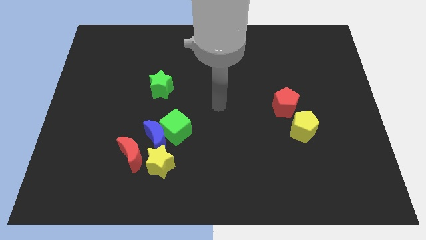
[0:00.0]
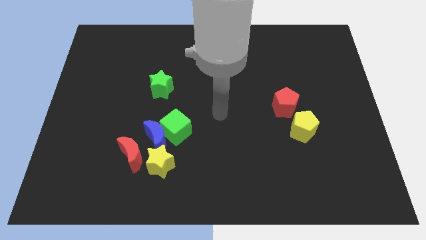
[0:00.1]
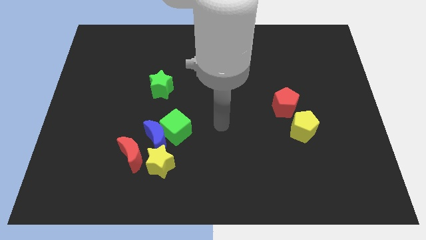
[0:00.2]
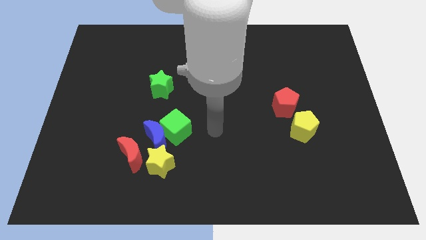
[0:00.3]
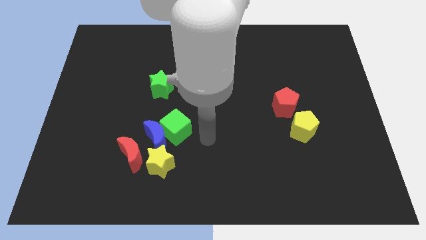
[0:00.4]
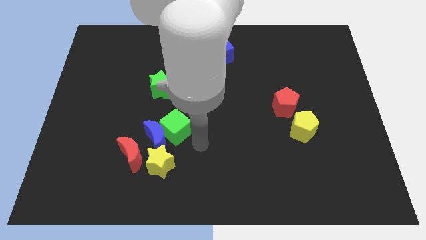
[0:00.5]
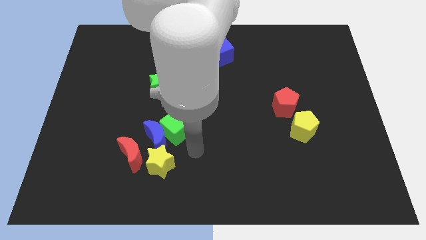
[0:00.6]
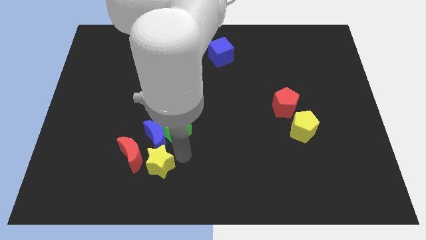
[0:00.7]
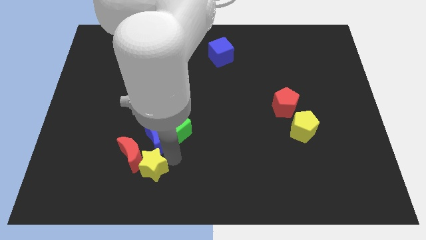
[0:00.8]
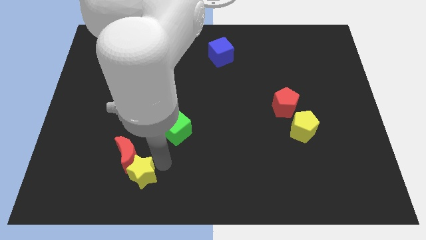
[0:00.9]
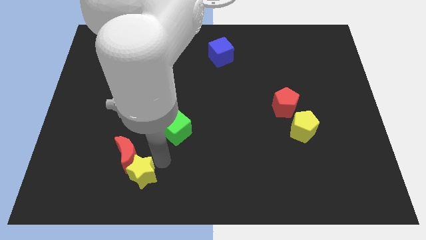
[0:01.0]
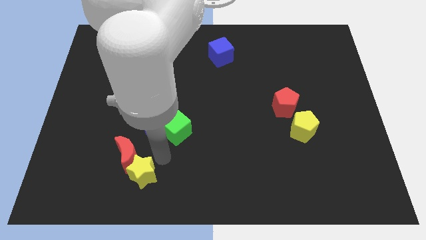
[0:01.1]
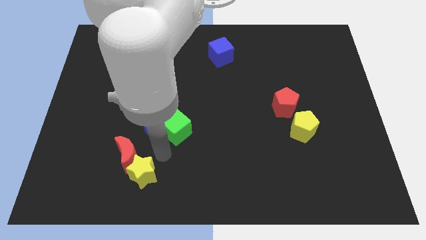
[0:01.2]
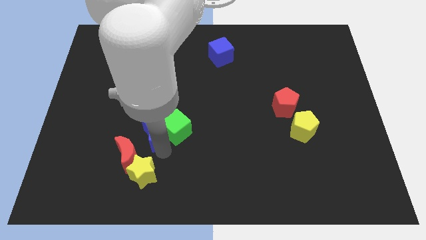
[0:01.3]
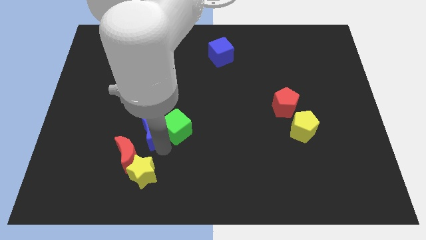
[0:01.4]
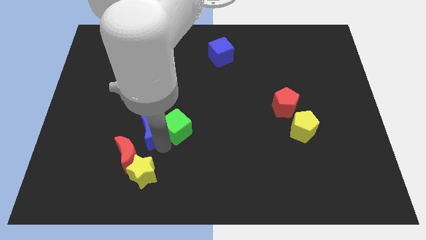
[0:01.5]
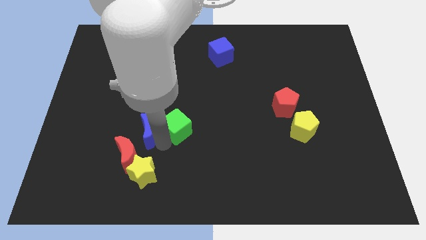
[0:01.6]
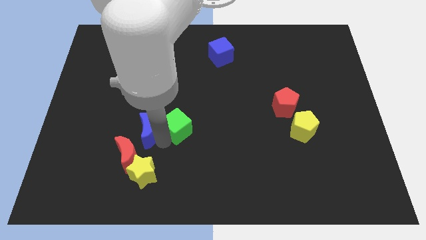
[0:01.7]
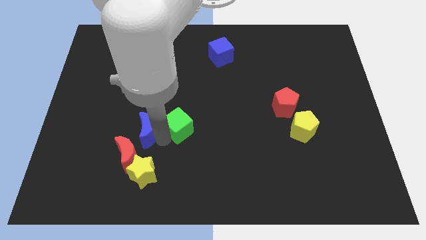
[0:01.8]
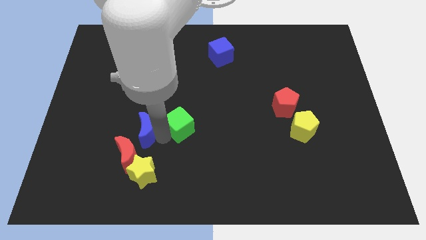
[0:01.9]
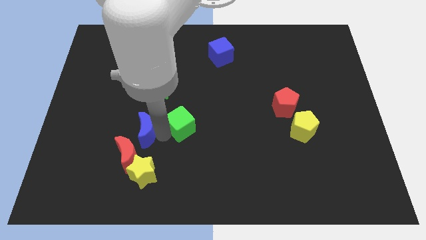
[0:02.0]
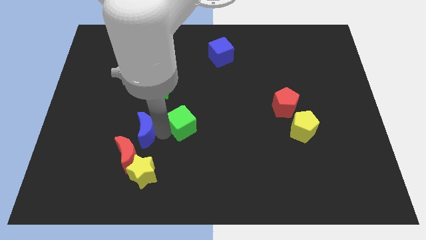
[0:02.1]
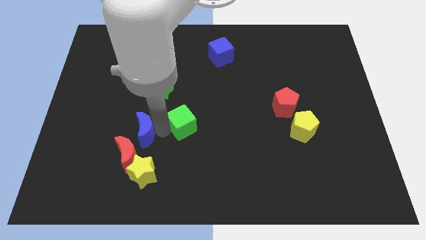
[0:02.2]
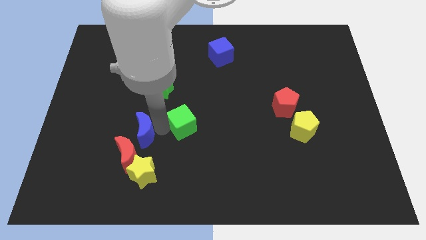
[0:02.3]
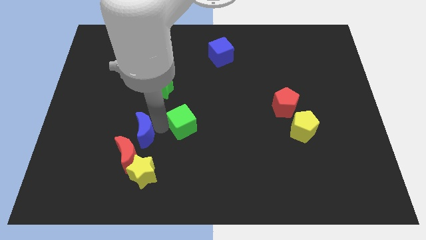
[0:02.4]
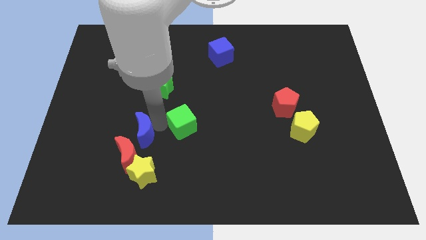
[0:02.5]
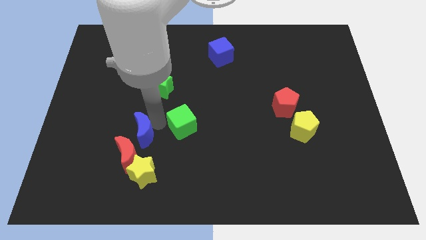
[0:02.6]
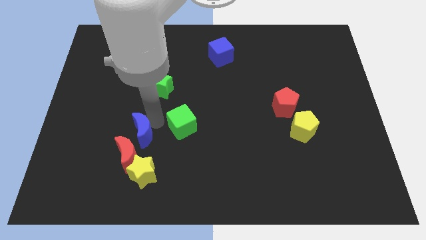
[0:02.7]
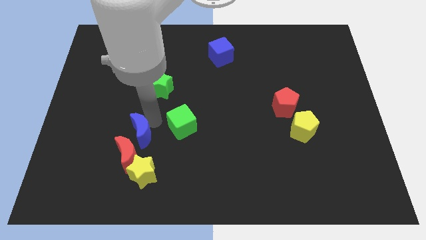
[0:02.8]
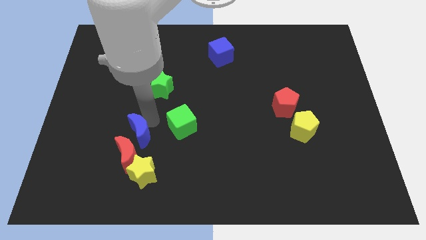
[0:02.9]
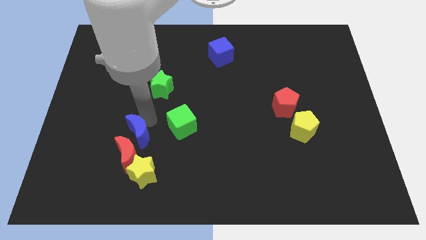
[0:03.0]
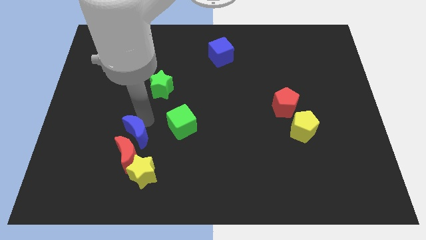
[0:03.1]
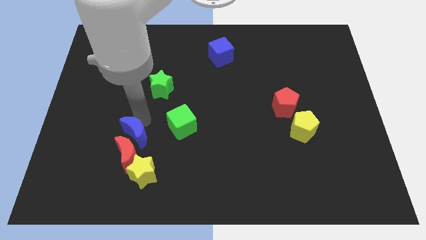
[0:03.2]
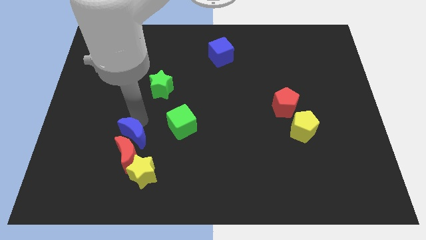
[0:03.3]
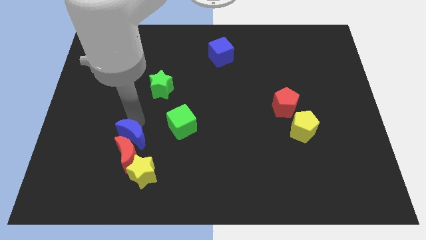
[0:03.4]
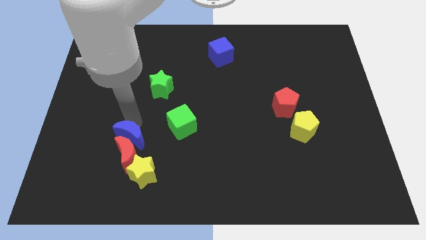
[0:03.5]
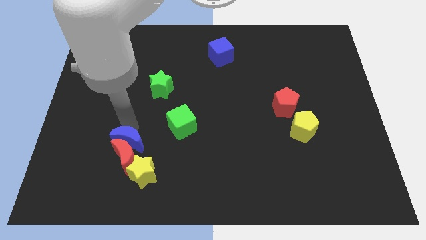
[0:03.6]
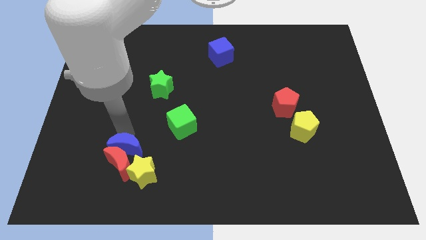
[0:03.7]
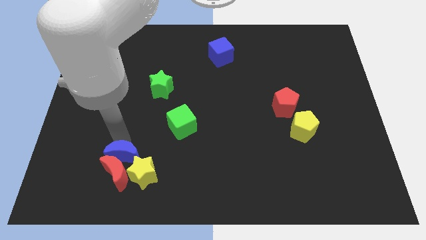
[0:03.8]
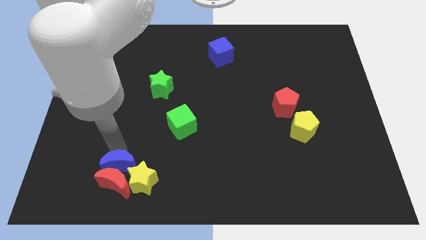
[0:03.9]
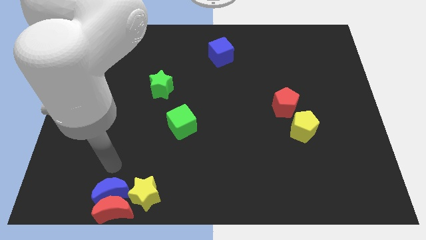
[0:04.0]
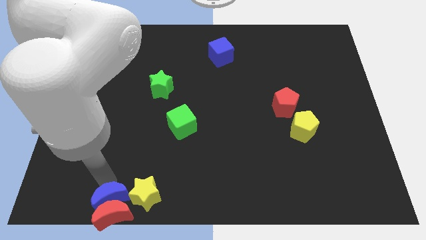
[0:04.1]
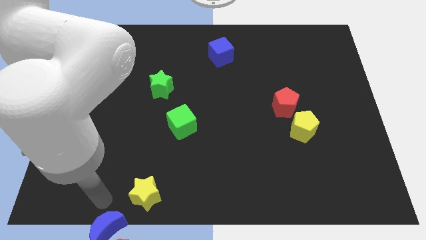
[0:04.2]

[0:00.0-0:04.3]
move the blue moon away from the clump

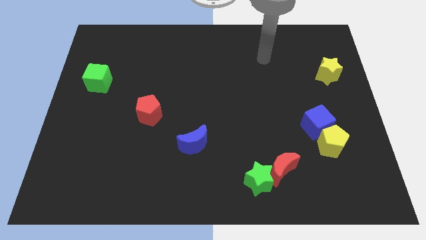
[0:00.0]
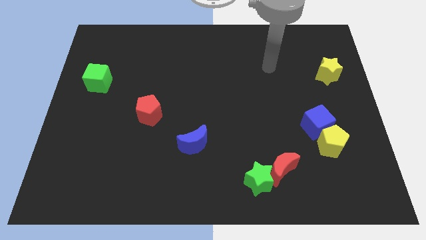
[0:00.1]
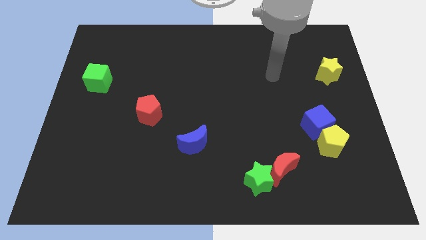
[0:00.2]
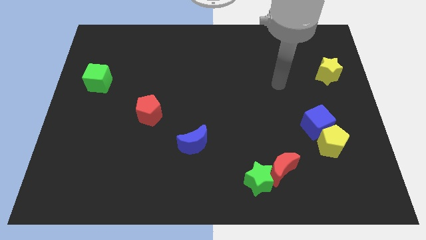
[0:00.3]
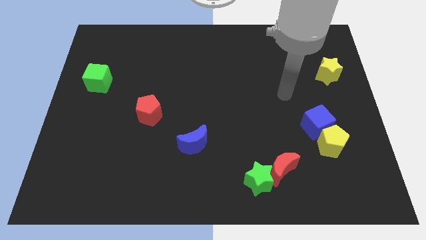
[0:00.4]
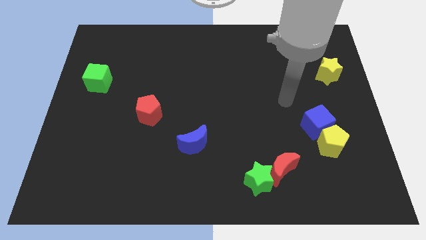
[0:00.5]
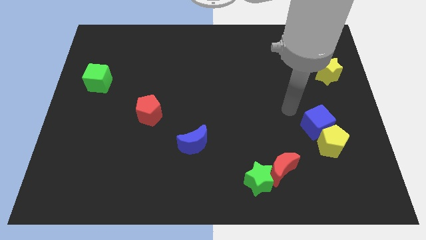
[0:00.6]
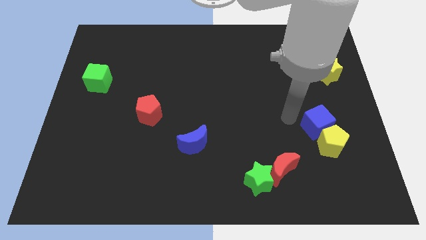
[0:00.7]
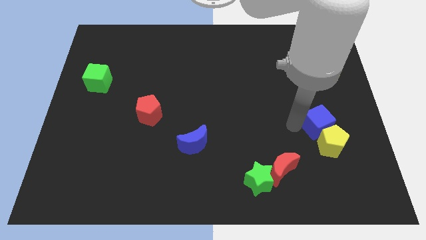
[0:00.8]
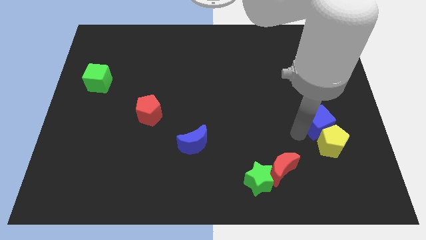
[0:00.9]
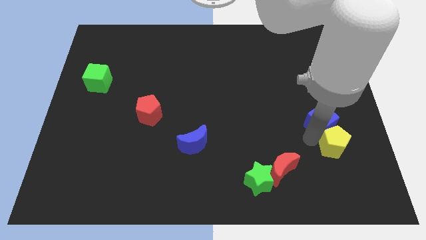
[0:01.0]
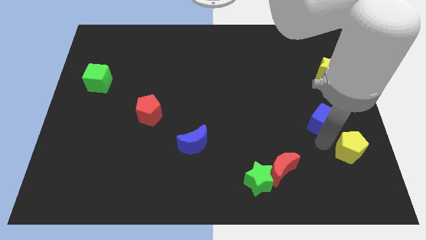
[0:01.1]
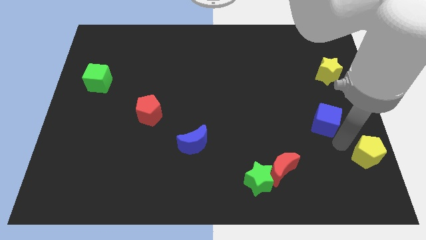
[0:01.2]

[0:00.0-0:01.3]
separate the blue cube from the yellow pentagon

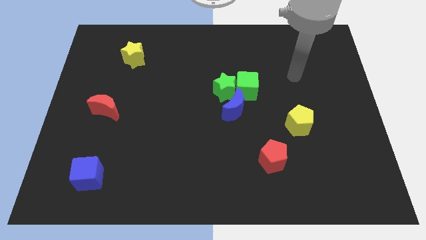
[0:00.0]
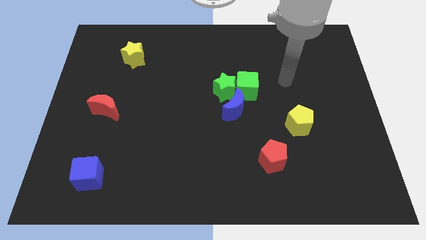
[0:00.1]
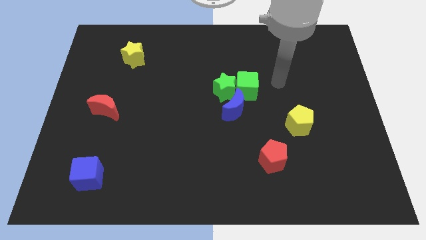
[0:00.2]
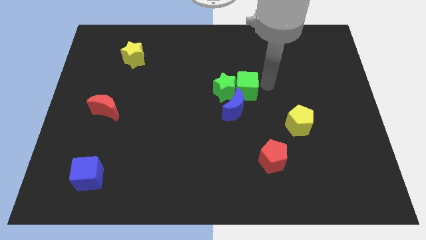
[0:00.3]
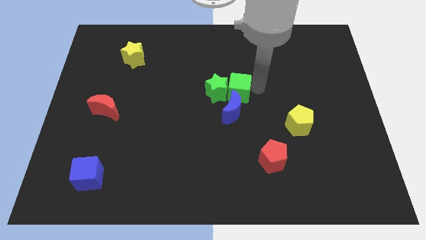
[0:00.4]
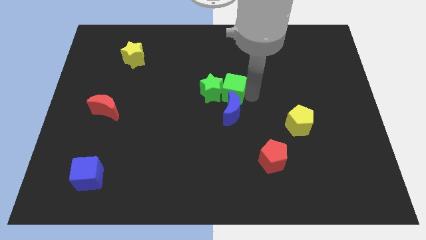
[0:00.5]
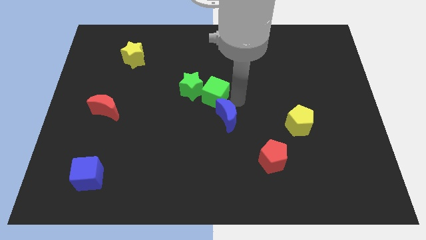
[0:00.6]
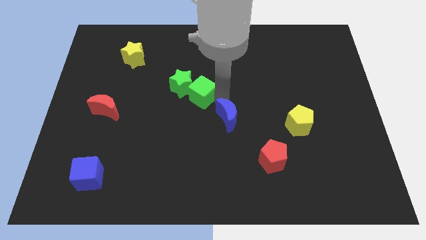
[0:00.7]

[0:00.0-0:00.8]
separate the green star from the green cube and blue moon

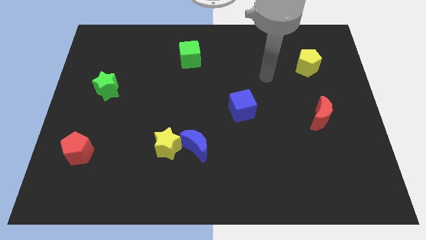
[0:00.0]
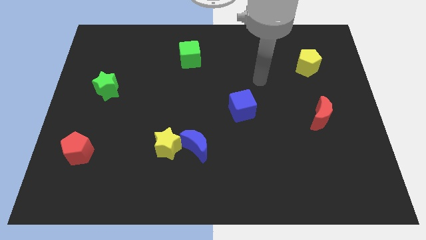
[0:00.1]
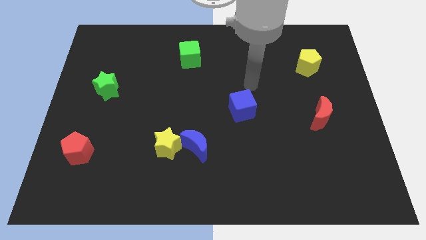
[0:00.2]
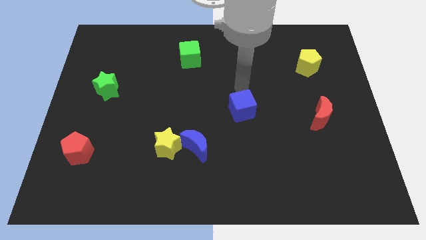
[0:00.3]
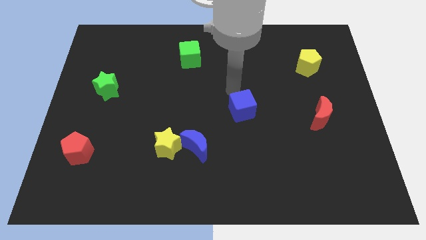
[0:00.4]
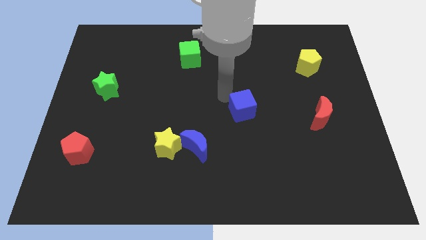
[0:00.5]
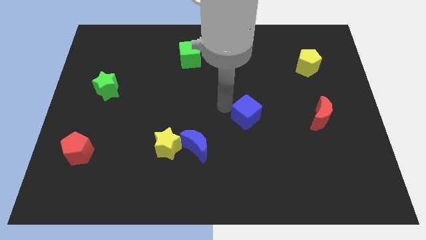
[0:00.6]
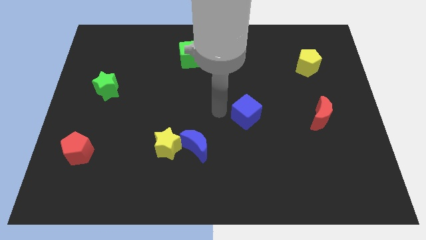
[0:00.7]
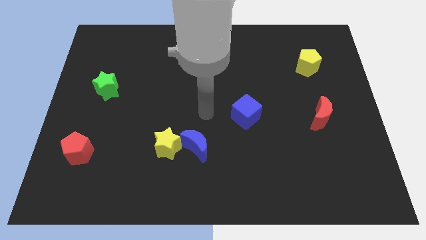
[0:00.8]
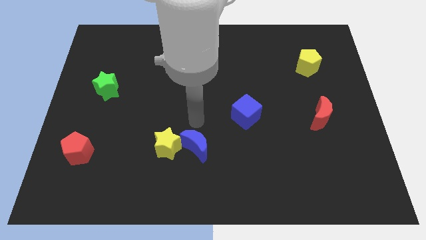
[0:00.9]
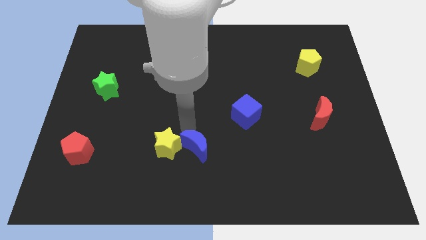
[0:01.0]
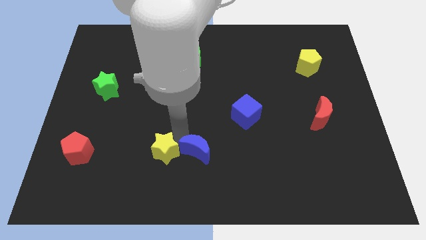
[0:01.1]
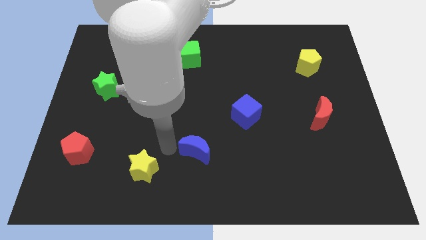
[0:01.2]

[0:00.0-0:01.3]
move the blue moon away from the yellow star

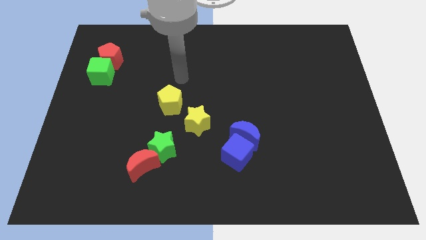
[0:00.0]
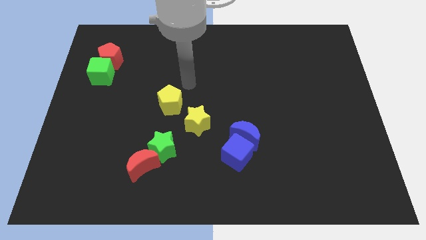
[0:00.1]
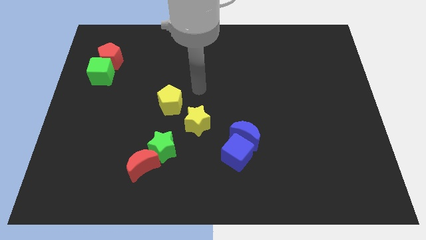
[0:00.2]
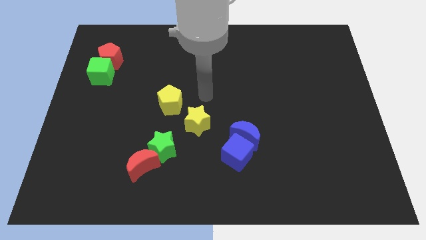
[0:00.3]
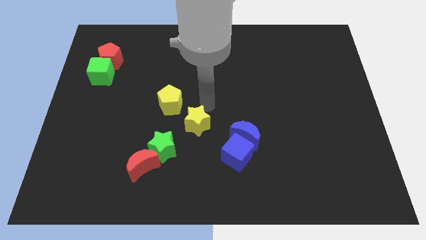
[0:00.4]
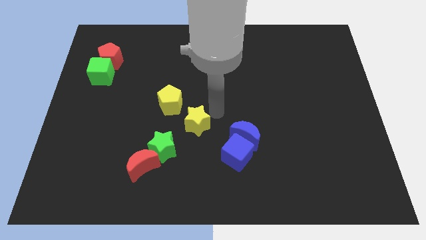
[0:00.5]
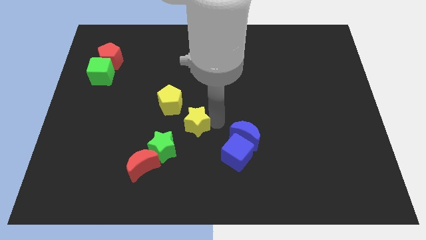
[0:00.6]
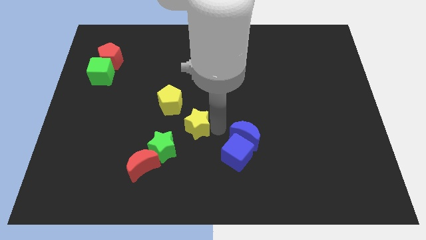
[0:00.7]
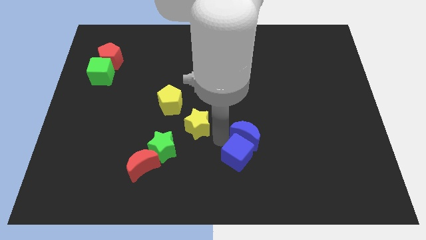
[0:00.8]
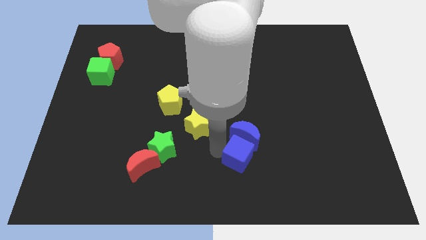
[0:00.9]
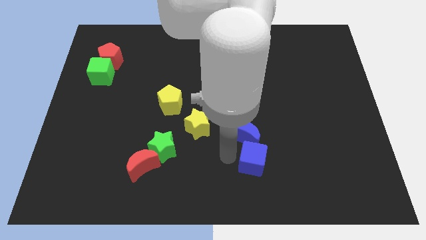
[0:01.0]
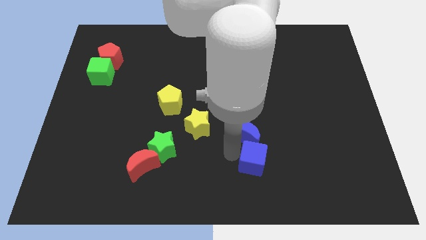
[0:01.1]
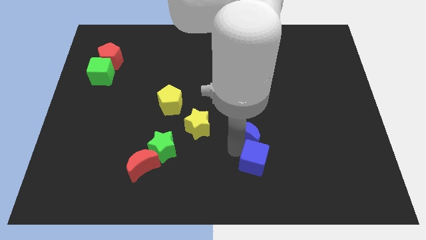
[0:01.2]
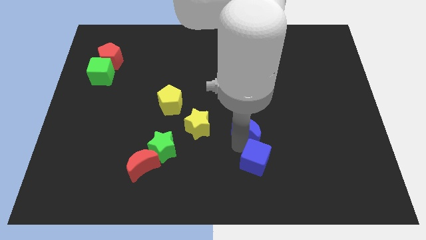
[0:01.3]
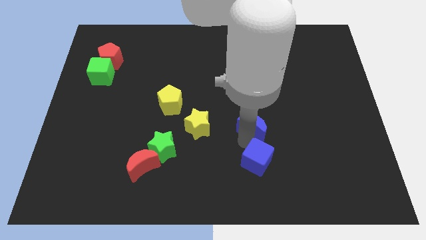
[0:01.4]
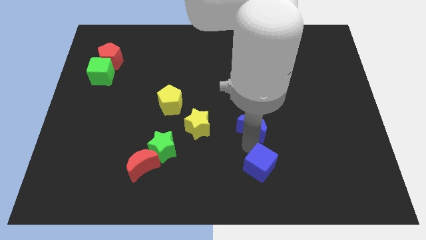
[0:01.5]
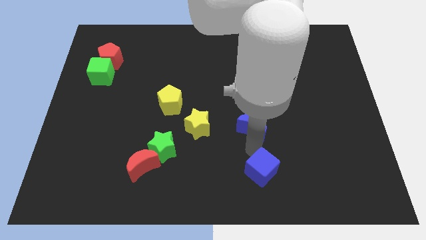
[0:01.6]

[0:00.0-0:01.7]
separate the blue moon from the blue cube
